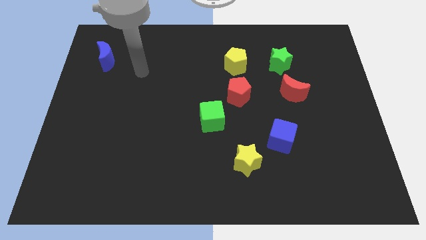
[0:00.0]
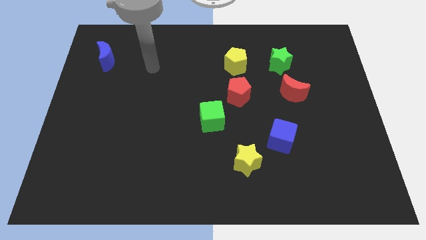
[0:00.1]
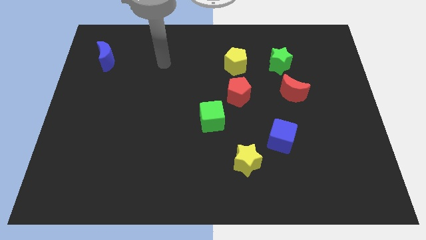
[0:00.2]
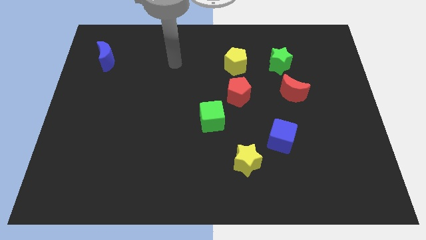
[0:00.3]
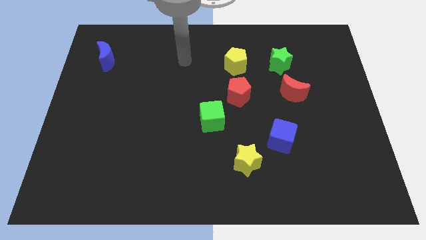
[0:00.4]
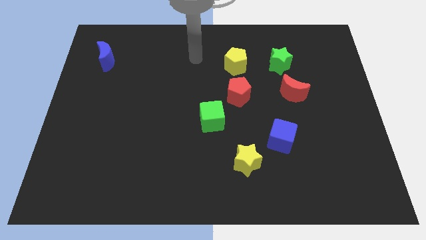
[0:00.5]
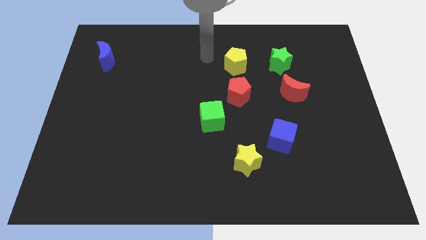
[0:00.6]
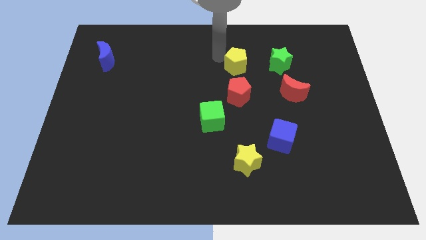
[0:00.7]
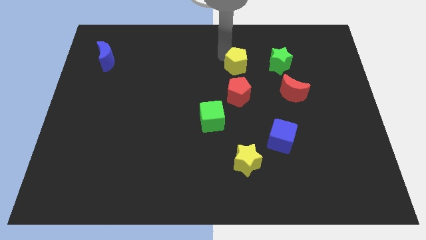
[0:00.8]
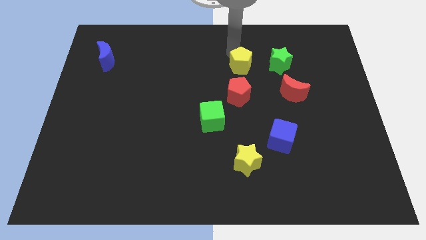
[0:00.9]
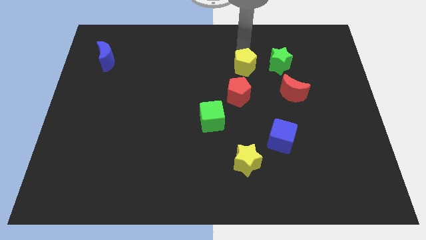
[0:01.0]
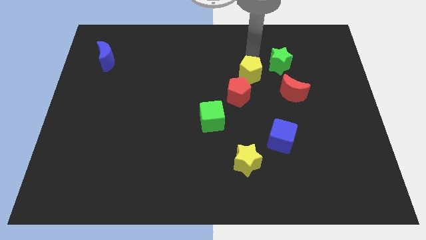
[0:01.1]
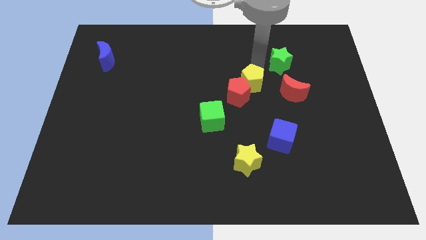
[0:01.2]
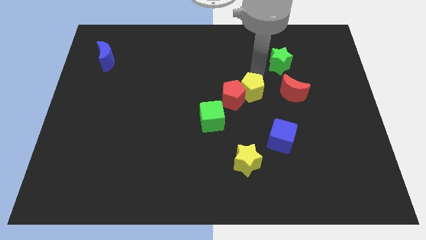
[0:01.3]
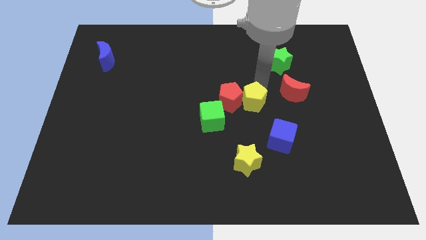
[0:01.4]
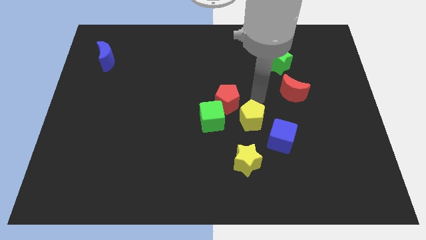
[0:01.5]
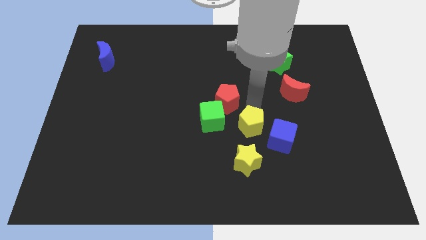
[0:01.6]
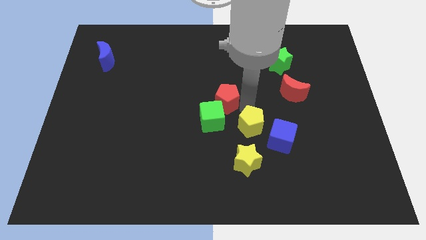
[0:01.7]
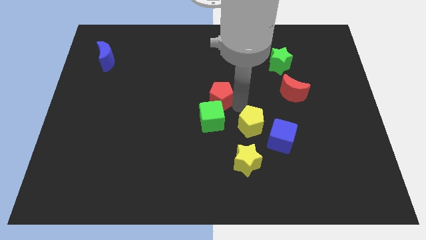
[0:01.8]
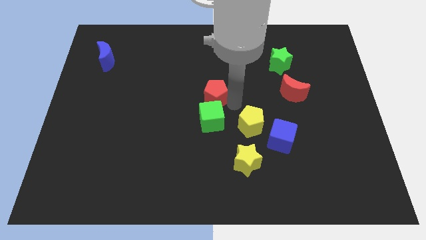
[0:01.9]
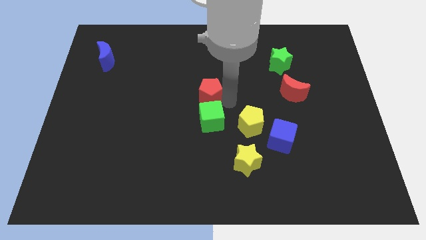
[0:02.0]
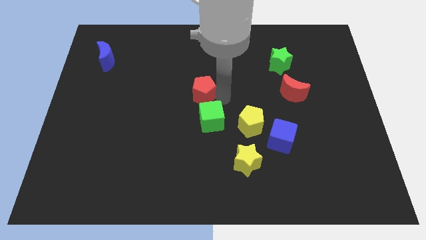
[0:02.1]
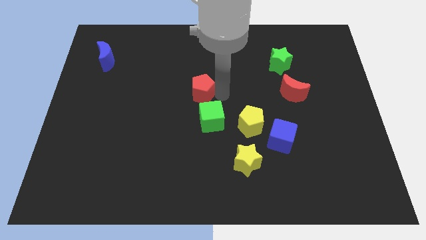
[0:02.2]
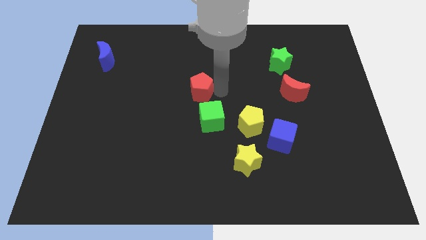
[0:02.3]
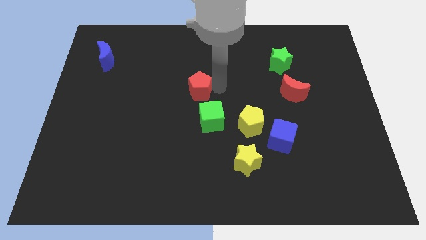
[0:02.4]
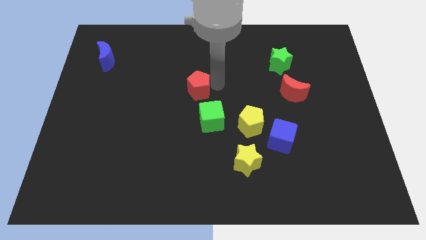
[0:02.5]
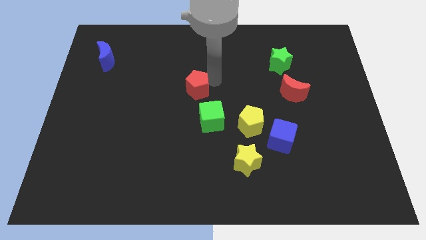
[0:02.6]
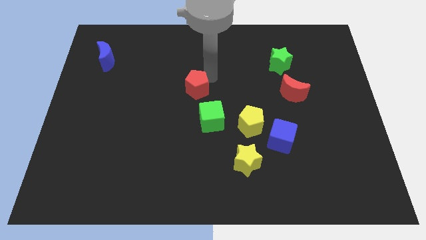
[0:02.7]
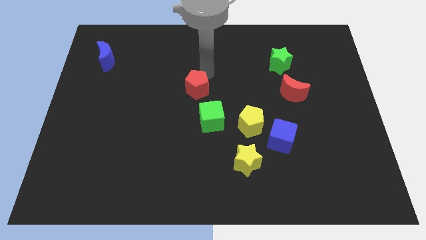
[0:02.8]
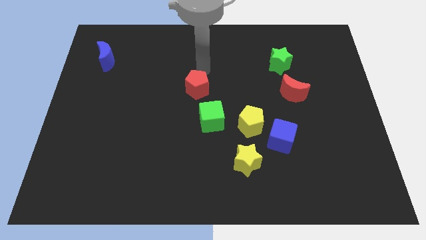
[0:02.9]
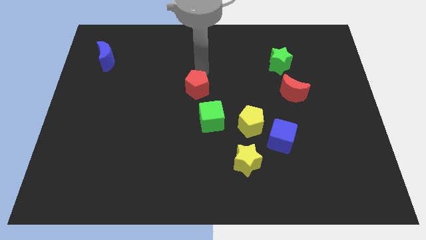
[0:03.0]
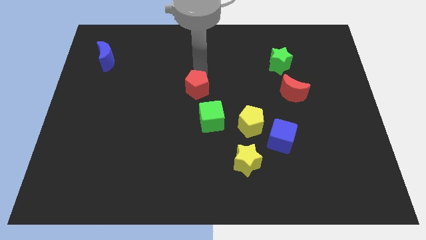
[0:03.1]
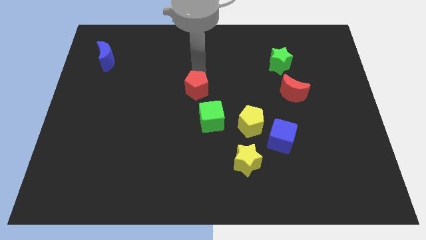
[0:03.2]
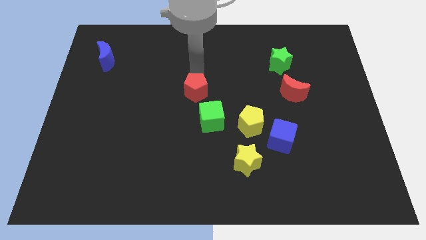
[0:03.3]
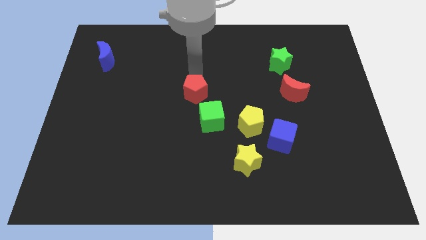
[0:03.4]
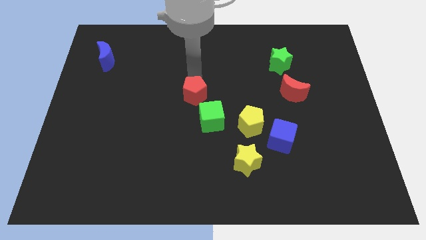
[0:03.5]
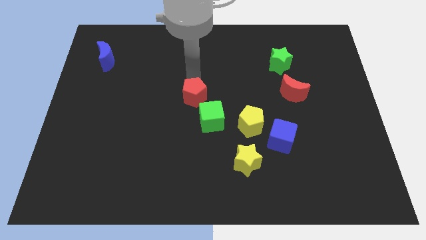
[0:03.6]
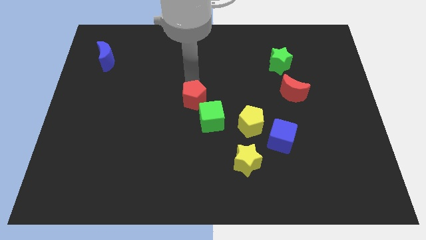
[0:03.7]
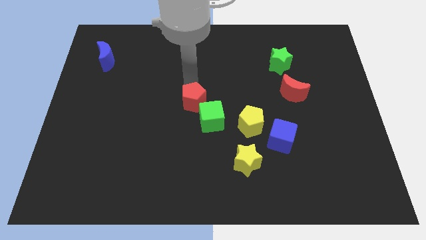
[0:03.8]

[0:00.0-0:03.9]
push the red pentagon a little bit downwards and left diagonally

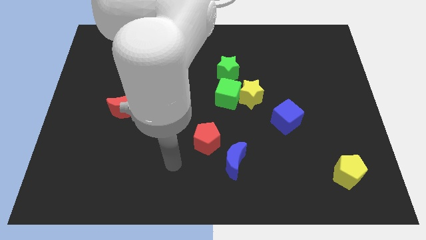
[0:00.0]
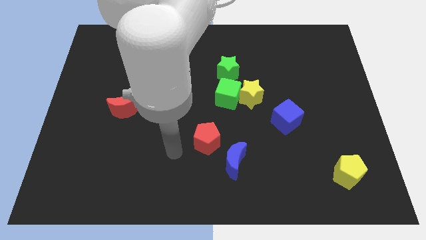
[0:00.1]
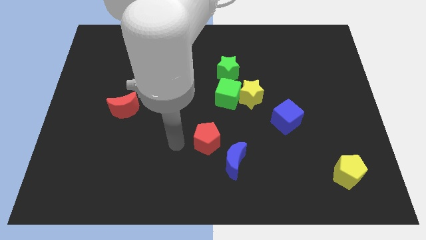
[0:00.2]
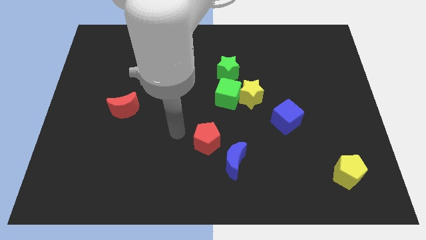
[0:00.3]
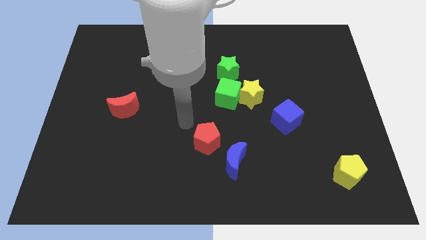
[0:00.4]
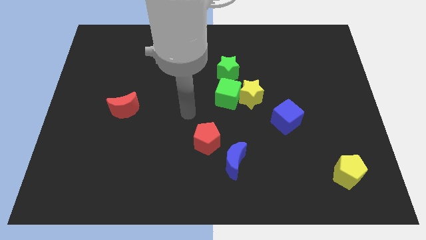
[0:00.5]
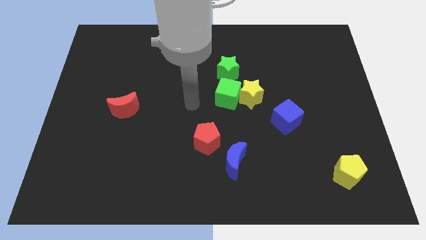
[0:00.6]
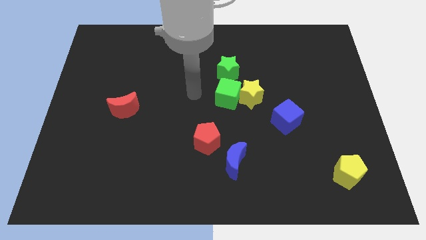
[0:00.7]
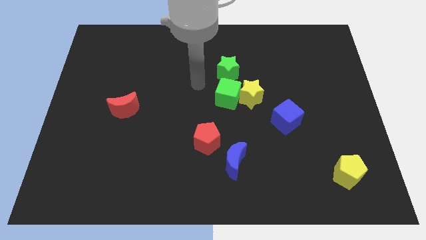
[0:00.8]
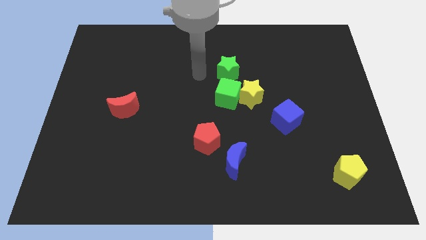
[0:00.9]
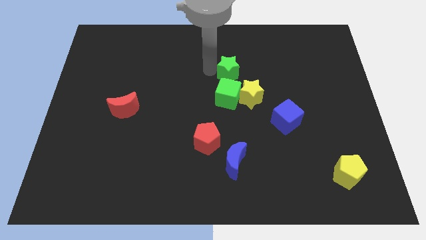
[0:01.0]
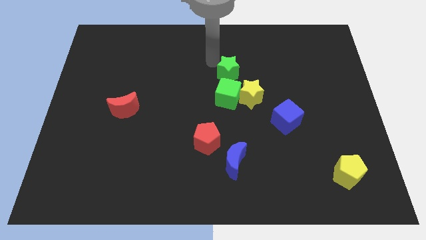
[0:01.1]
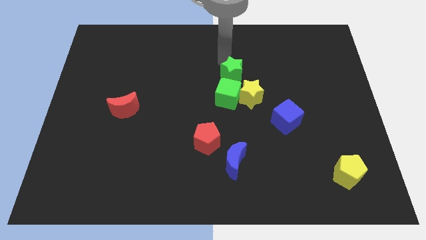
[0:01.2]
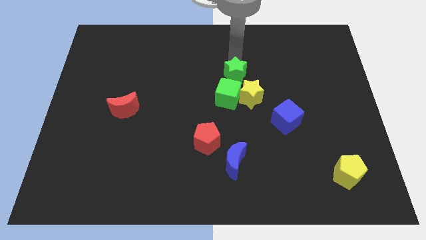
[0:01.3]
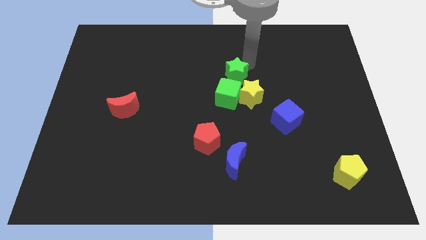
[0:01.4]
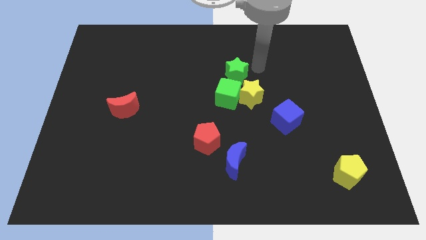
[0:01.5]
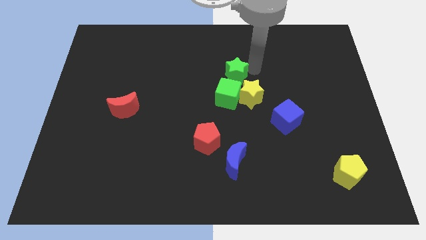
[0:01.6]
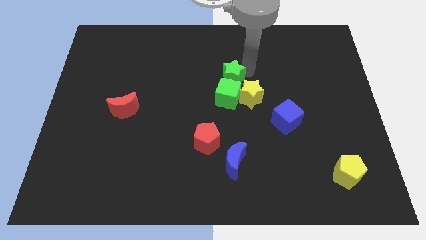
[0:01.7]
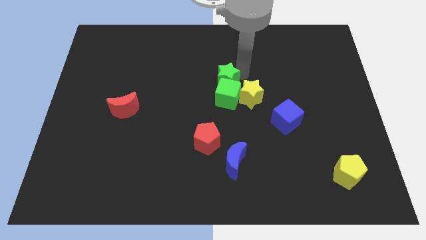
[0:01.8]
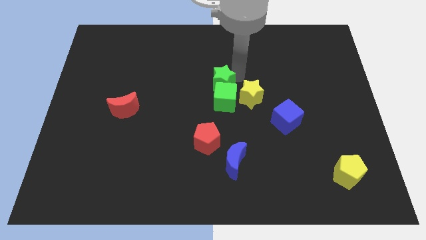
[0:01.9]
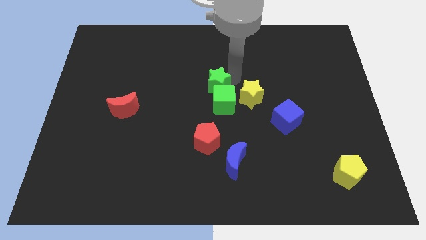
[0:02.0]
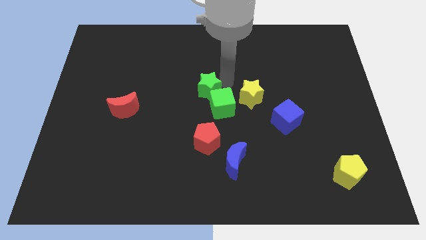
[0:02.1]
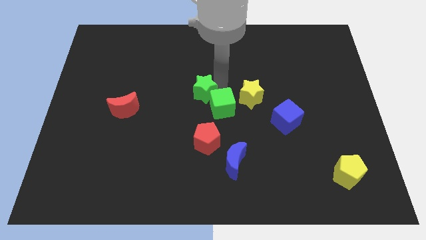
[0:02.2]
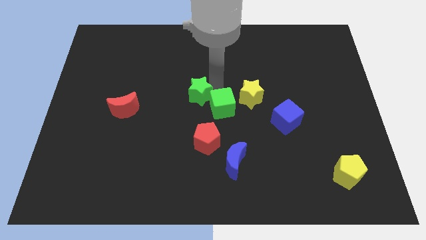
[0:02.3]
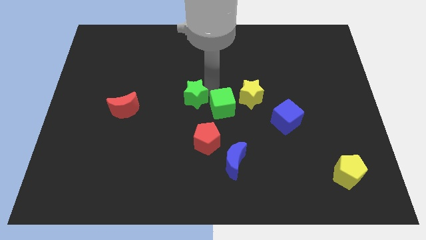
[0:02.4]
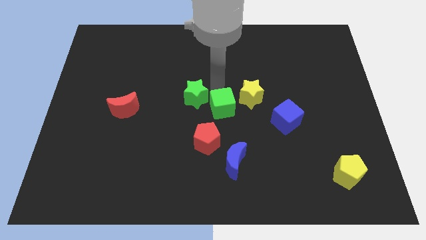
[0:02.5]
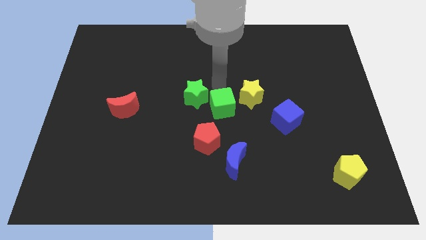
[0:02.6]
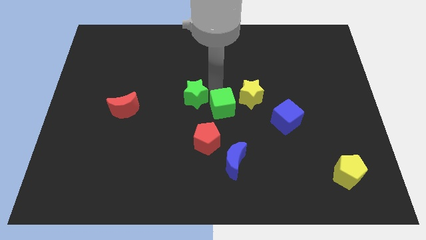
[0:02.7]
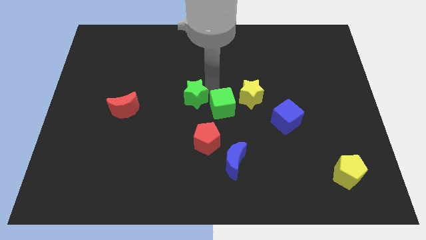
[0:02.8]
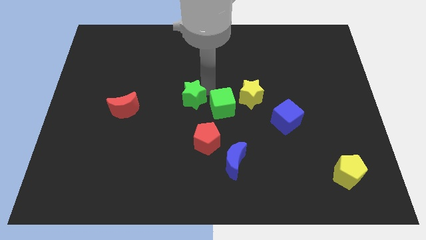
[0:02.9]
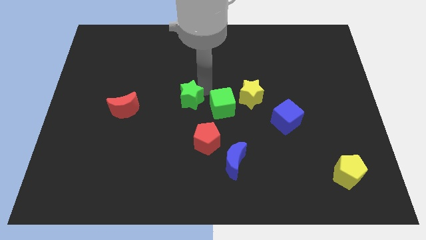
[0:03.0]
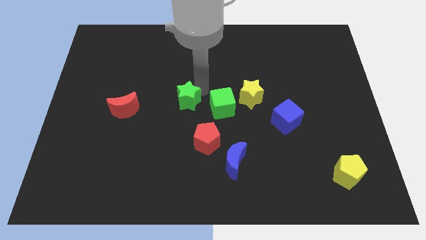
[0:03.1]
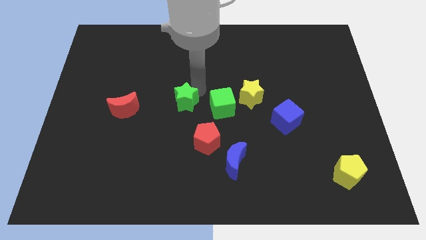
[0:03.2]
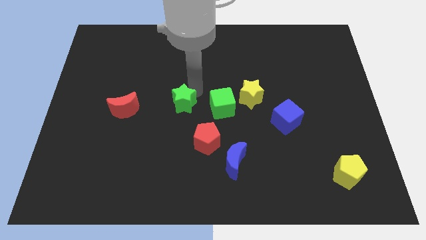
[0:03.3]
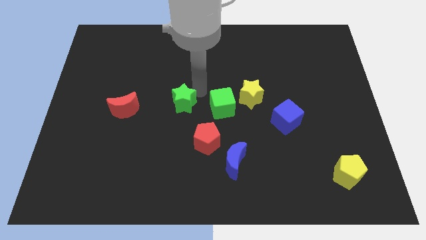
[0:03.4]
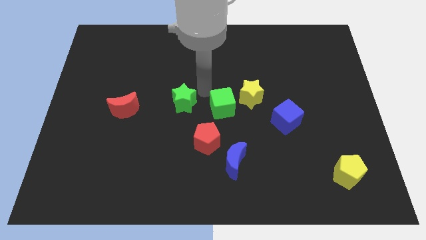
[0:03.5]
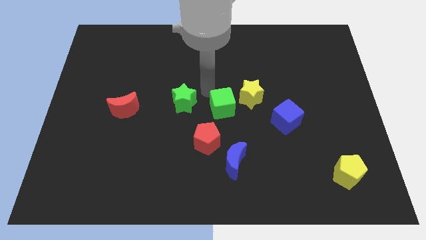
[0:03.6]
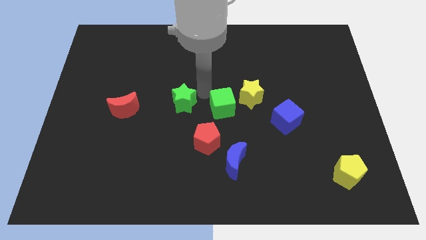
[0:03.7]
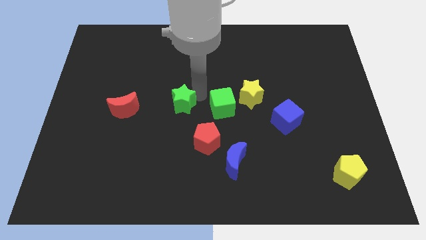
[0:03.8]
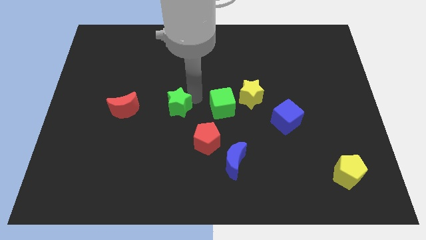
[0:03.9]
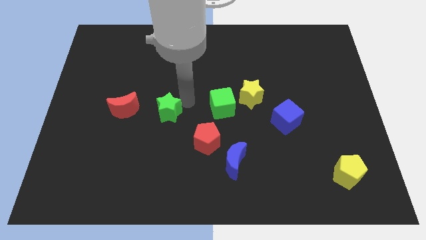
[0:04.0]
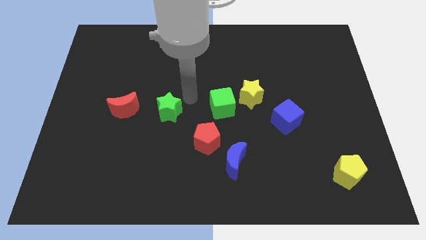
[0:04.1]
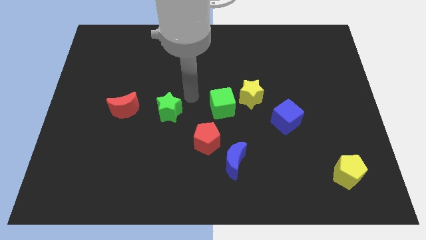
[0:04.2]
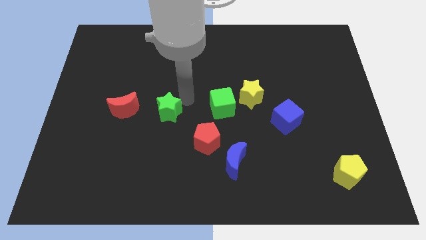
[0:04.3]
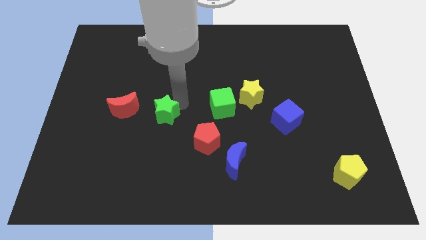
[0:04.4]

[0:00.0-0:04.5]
push the green star diagonally down and to the left
